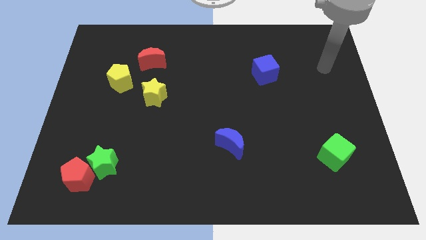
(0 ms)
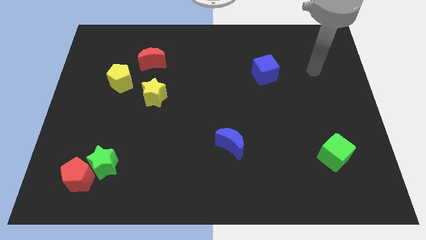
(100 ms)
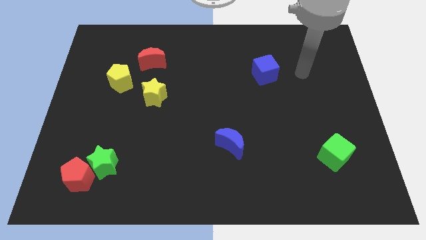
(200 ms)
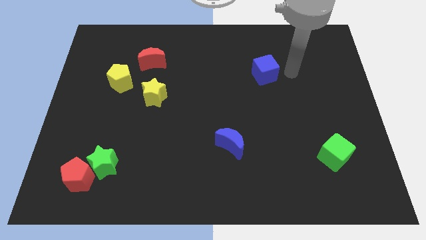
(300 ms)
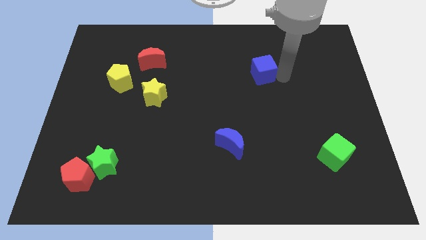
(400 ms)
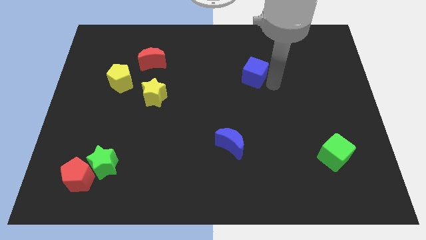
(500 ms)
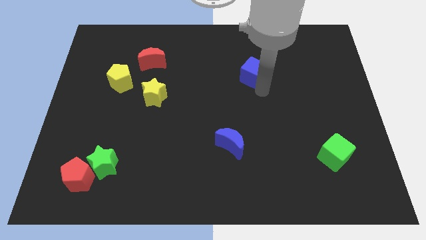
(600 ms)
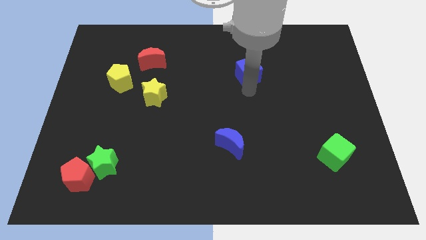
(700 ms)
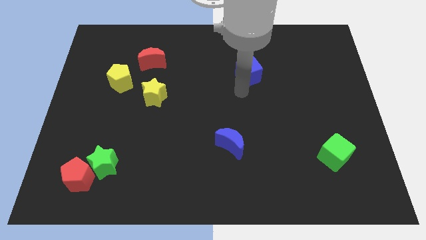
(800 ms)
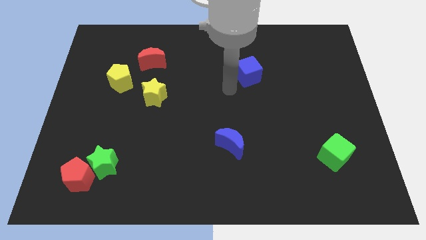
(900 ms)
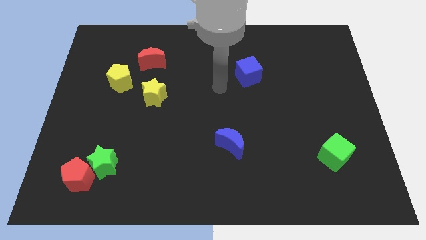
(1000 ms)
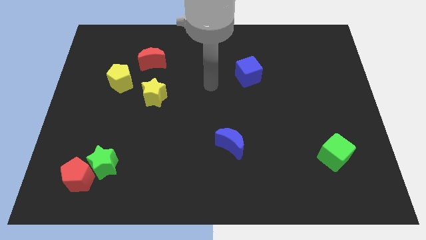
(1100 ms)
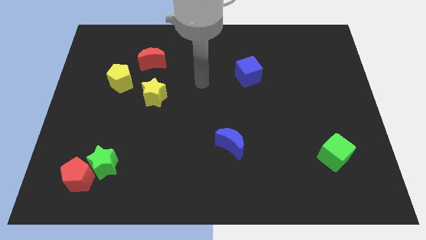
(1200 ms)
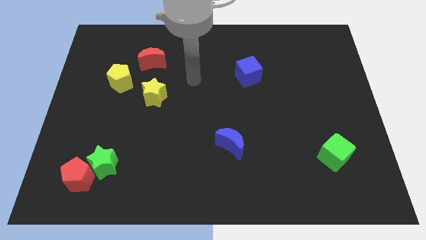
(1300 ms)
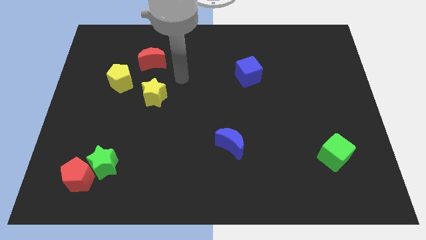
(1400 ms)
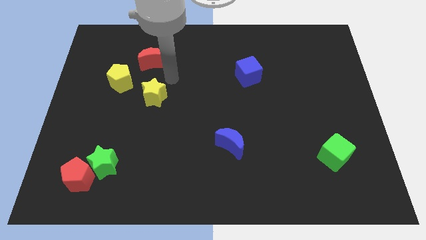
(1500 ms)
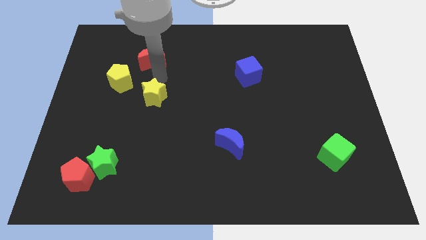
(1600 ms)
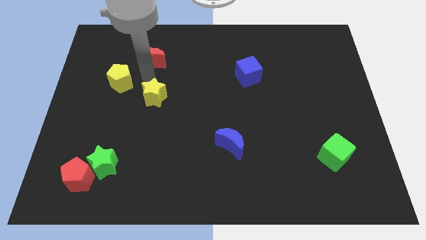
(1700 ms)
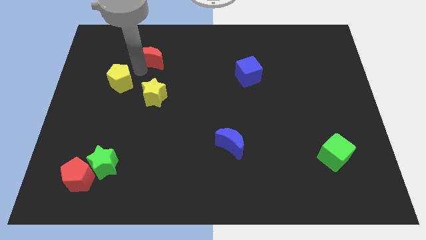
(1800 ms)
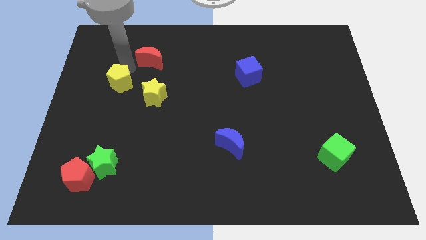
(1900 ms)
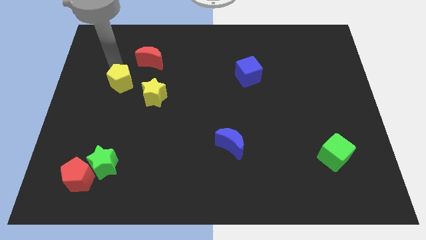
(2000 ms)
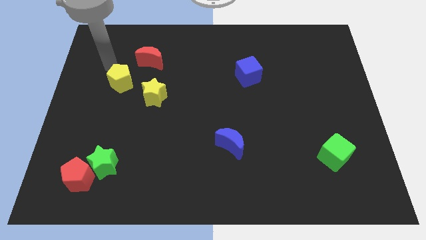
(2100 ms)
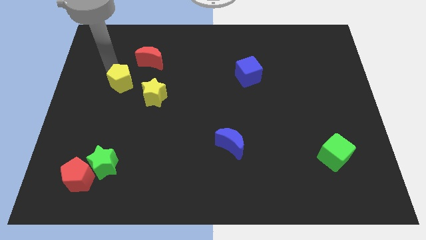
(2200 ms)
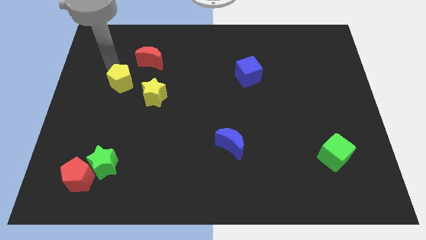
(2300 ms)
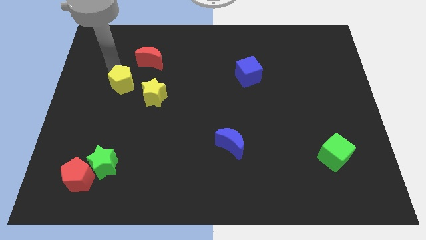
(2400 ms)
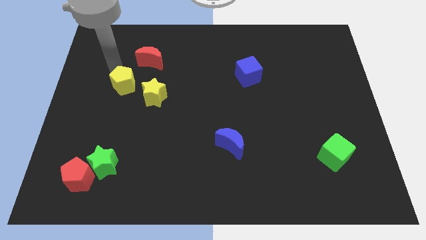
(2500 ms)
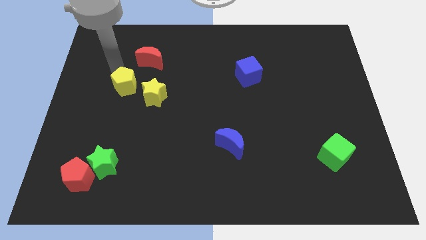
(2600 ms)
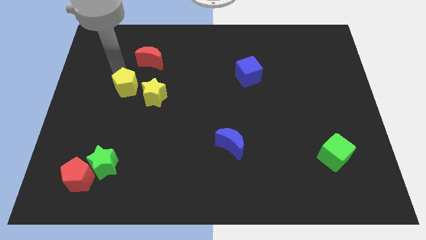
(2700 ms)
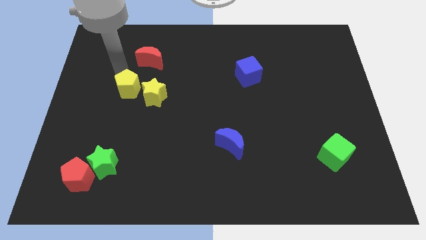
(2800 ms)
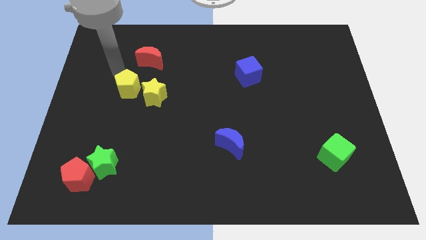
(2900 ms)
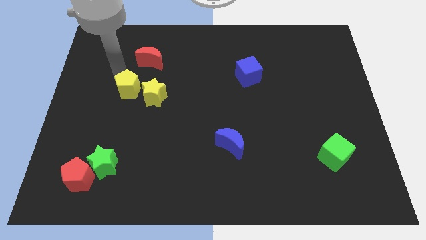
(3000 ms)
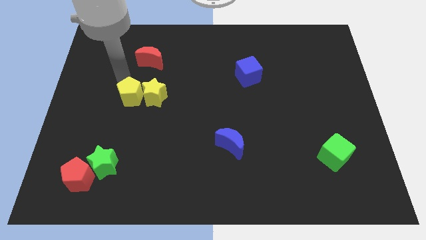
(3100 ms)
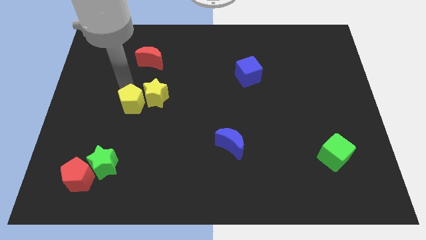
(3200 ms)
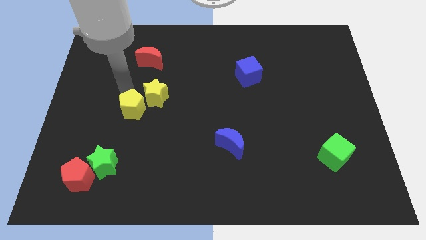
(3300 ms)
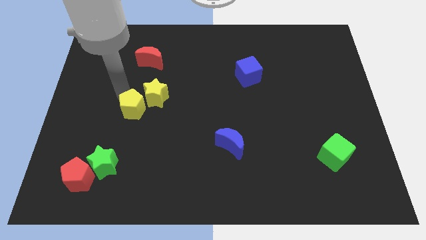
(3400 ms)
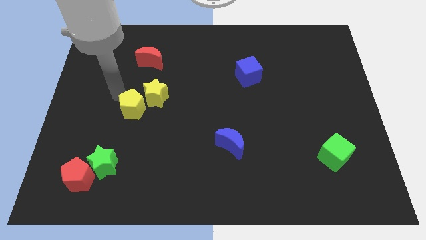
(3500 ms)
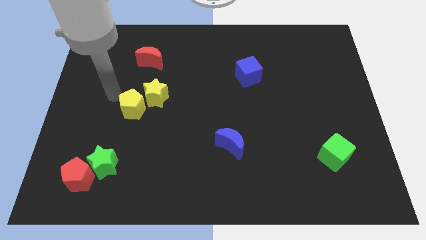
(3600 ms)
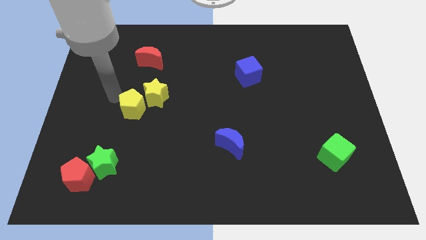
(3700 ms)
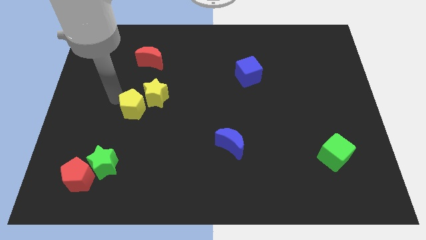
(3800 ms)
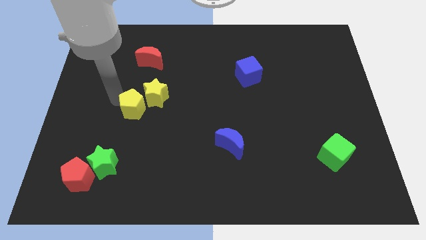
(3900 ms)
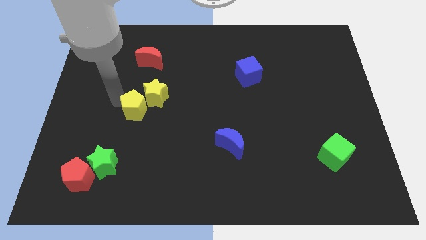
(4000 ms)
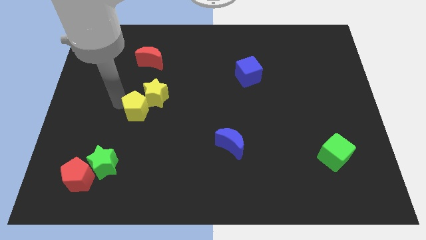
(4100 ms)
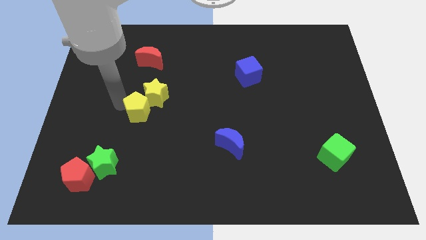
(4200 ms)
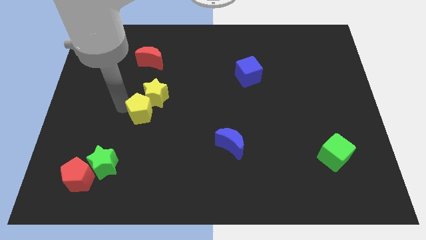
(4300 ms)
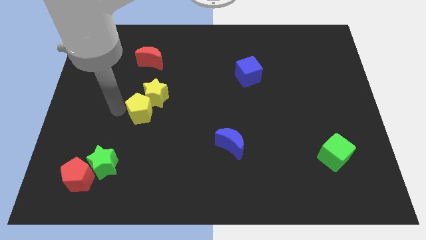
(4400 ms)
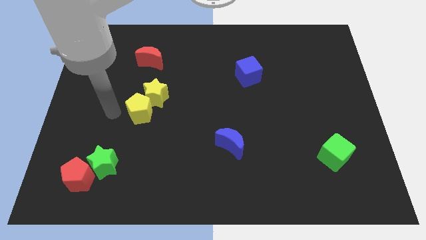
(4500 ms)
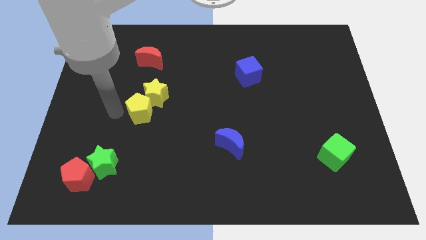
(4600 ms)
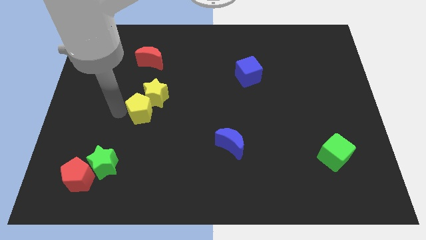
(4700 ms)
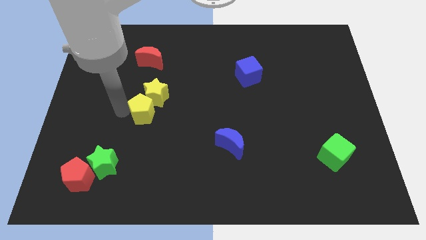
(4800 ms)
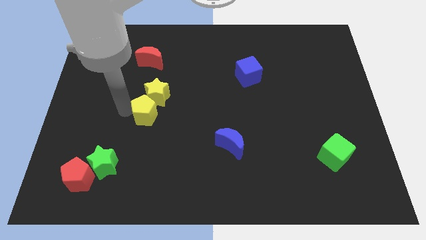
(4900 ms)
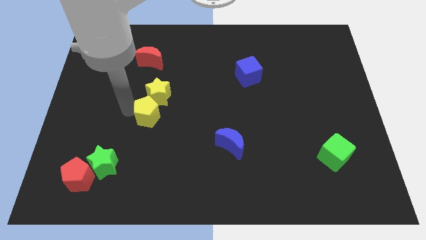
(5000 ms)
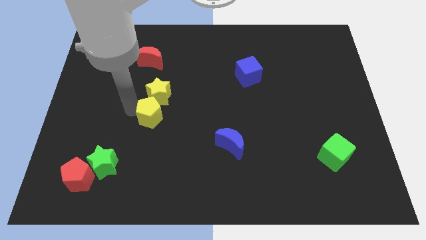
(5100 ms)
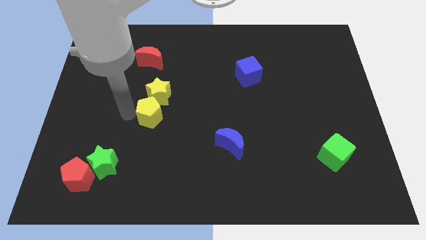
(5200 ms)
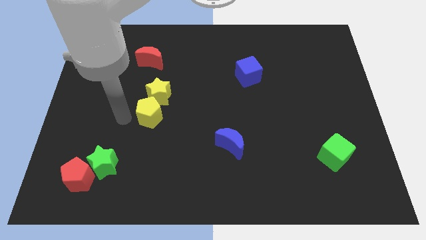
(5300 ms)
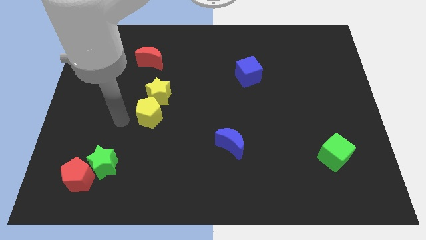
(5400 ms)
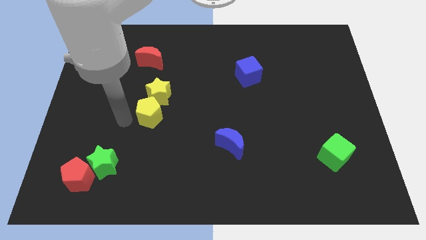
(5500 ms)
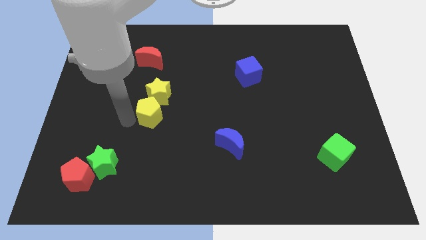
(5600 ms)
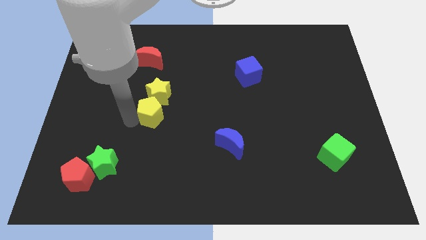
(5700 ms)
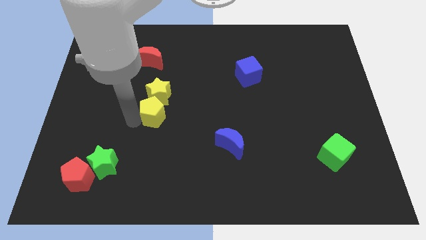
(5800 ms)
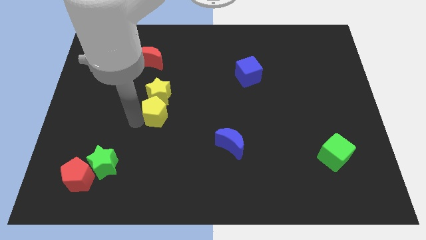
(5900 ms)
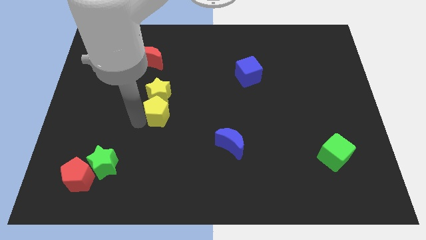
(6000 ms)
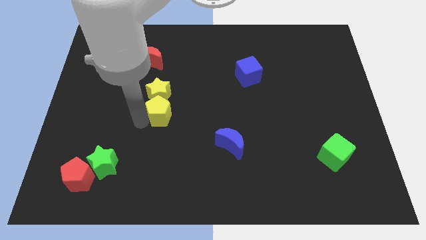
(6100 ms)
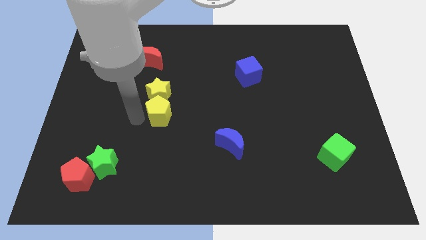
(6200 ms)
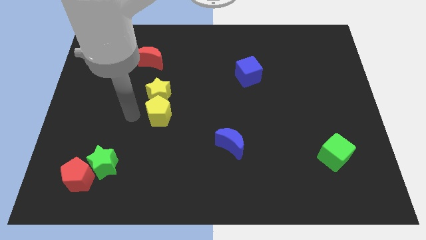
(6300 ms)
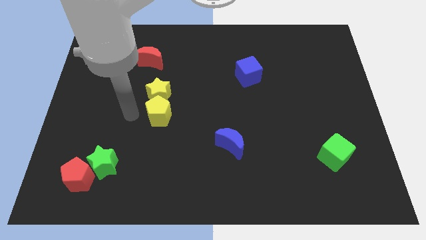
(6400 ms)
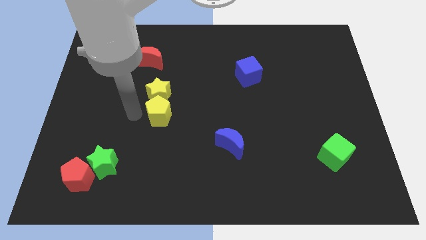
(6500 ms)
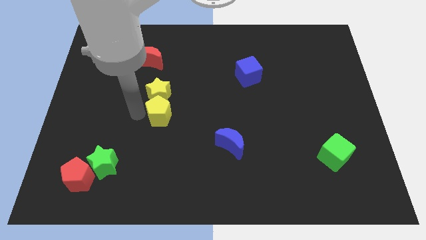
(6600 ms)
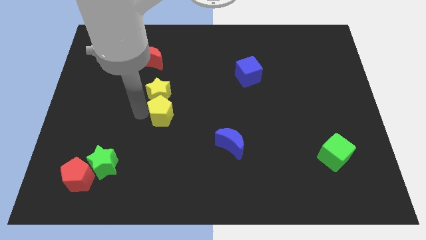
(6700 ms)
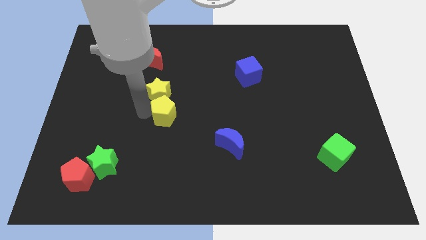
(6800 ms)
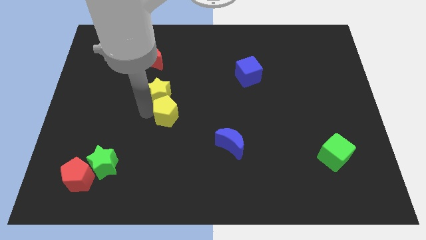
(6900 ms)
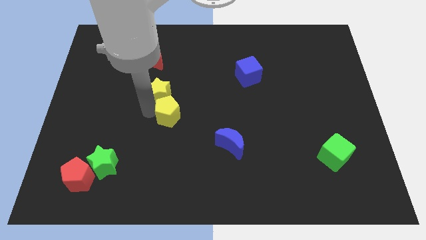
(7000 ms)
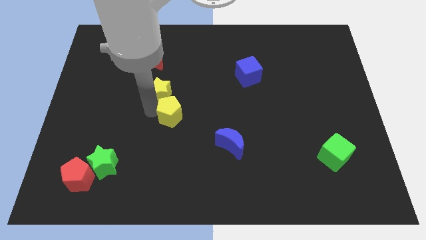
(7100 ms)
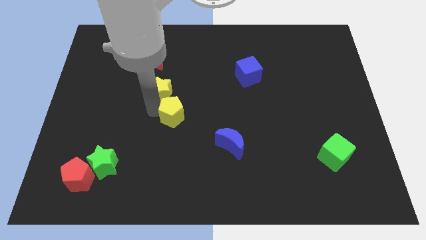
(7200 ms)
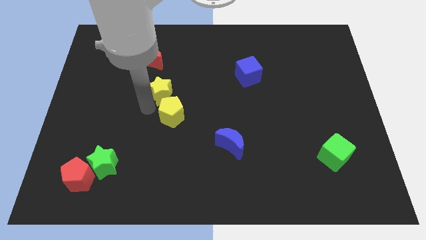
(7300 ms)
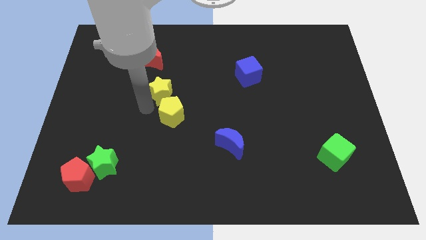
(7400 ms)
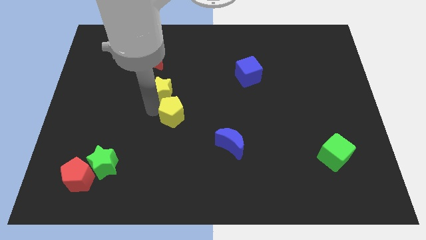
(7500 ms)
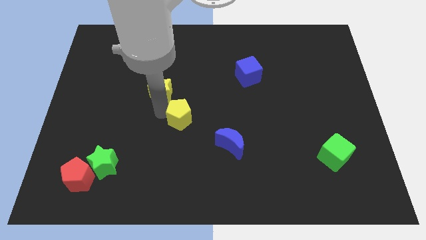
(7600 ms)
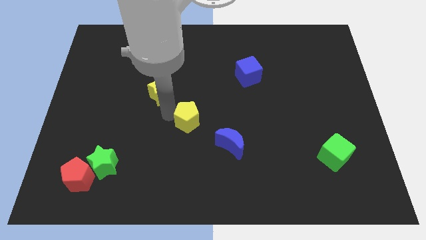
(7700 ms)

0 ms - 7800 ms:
move the yellow pentagon to the top left of the blue moon
